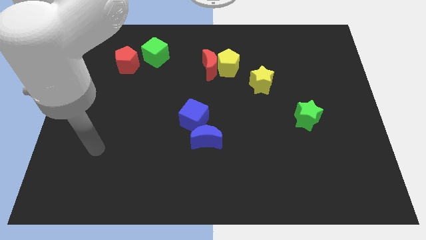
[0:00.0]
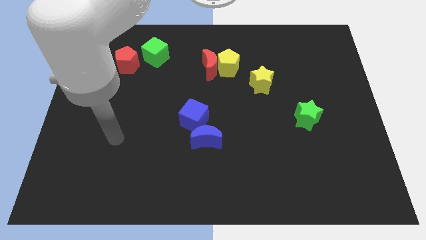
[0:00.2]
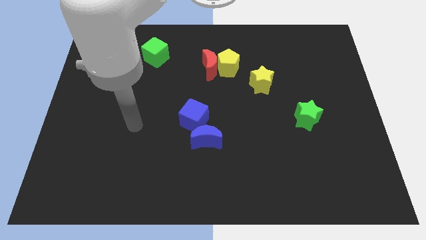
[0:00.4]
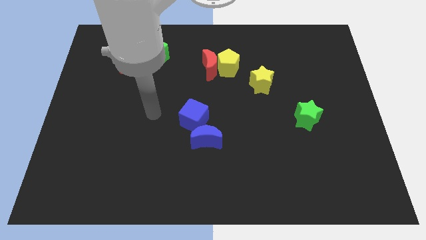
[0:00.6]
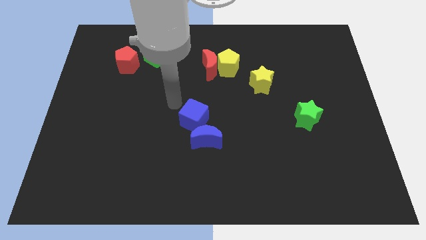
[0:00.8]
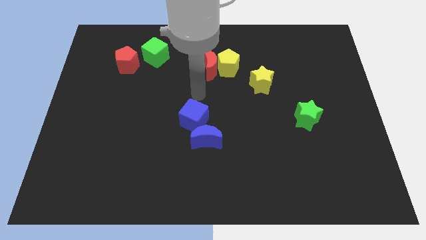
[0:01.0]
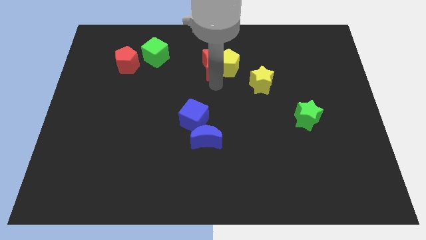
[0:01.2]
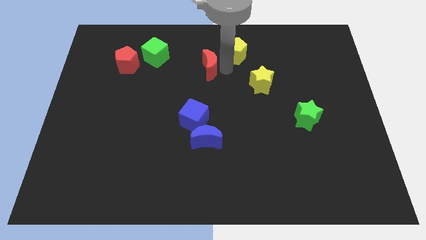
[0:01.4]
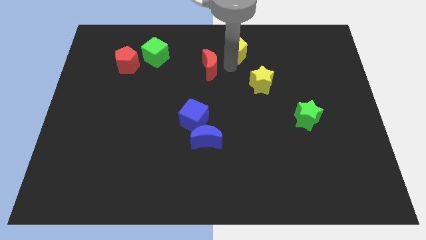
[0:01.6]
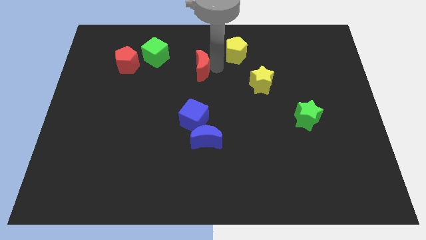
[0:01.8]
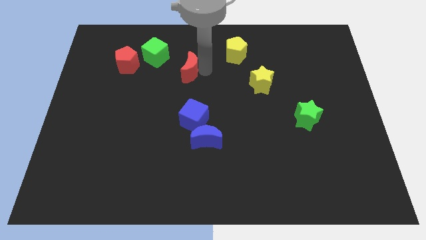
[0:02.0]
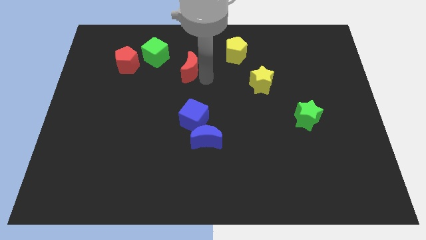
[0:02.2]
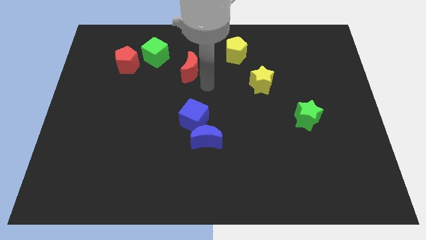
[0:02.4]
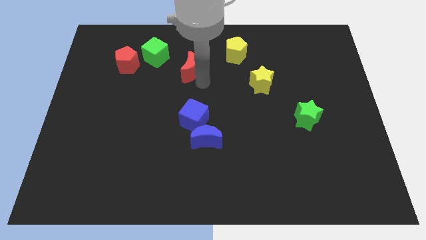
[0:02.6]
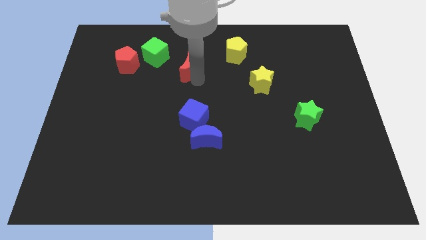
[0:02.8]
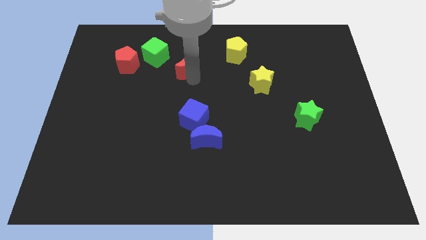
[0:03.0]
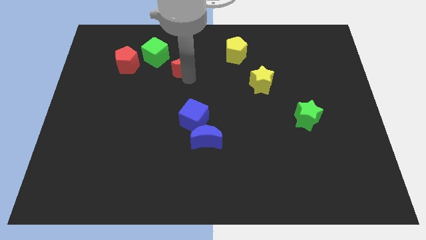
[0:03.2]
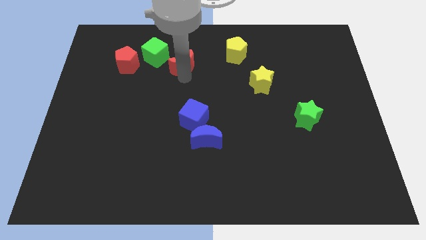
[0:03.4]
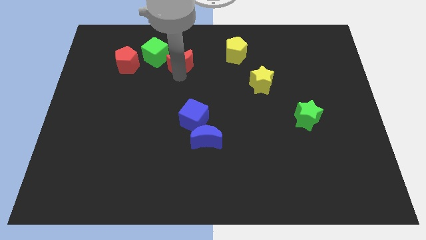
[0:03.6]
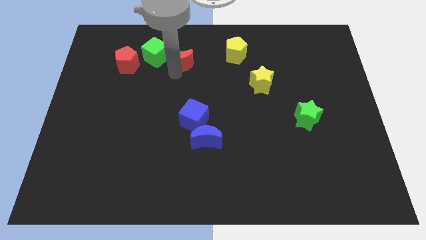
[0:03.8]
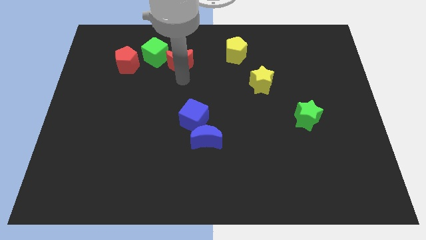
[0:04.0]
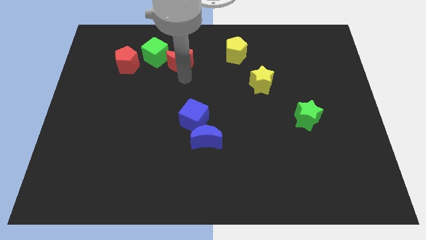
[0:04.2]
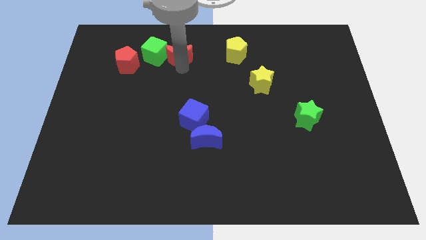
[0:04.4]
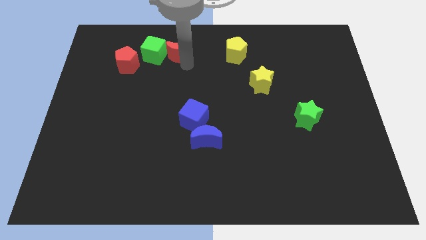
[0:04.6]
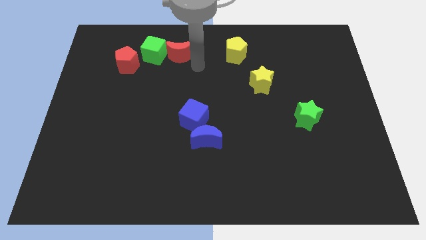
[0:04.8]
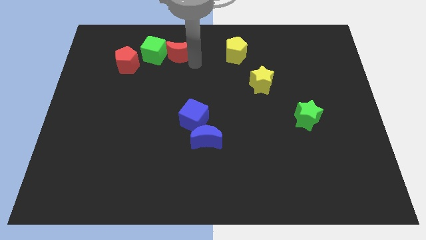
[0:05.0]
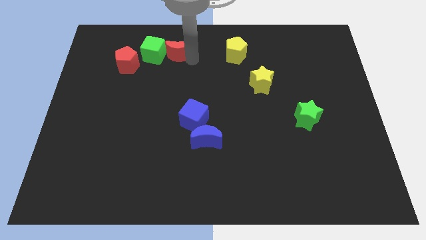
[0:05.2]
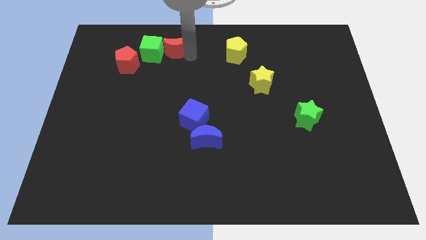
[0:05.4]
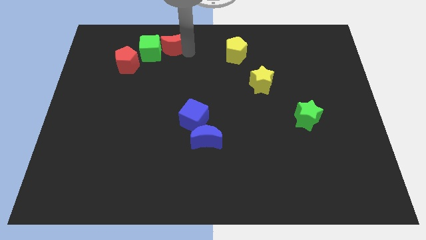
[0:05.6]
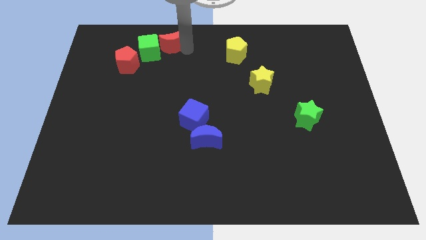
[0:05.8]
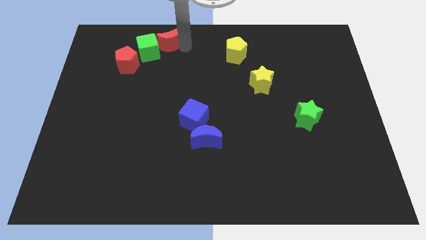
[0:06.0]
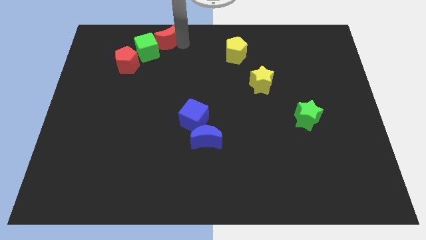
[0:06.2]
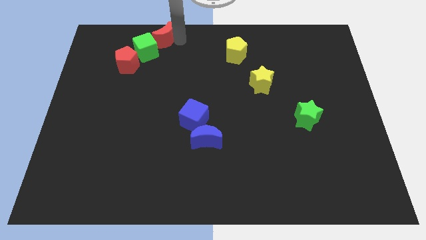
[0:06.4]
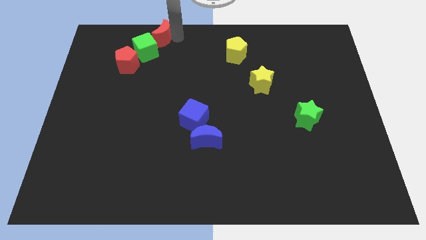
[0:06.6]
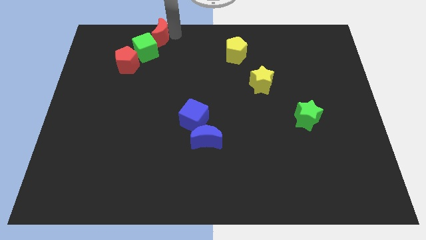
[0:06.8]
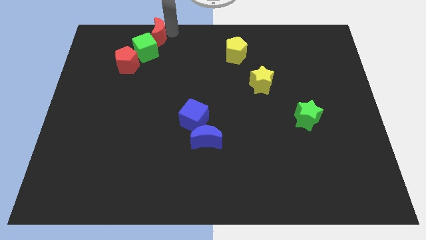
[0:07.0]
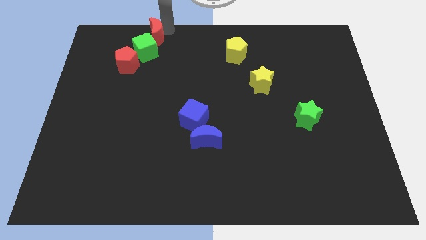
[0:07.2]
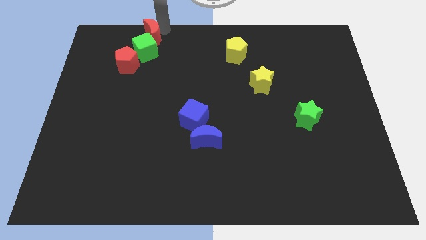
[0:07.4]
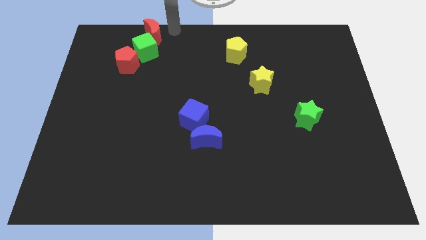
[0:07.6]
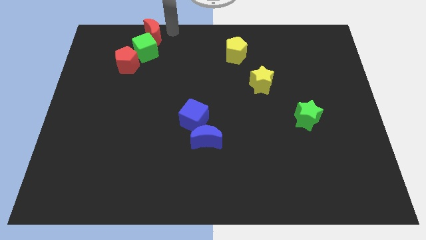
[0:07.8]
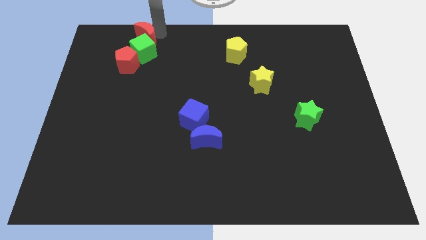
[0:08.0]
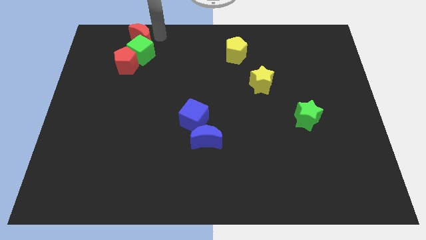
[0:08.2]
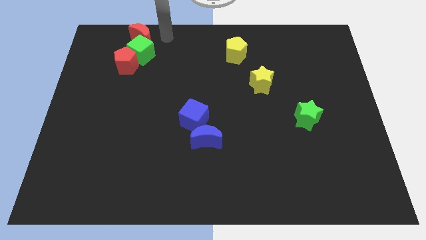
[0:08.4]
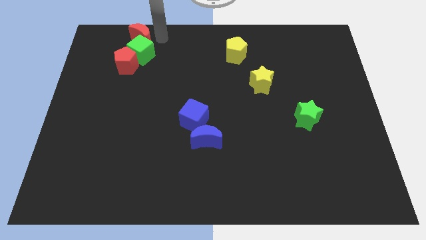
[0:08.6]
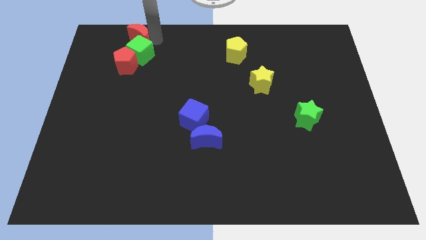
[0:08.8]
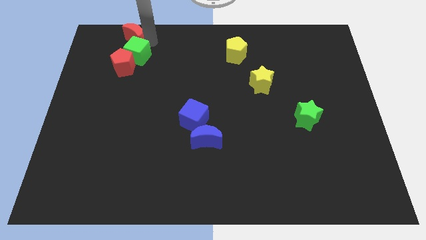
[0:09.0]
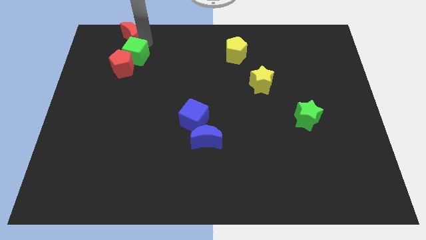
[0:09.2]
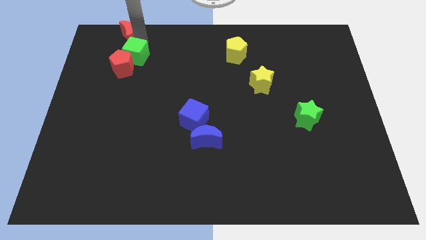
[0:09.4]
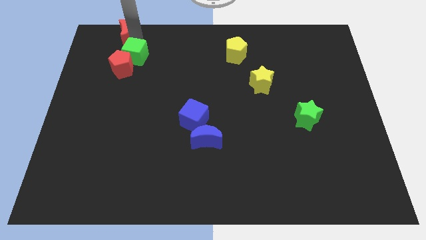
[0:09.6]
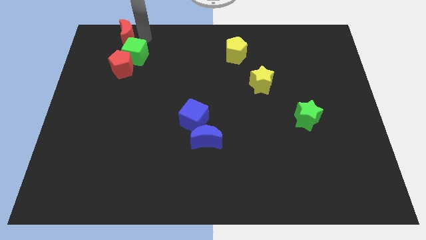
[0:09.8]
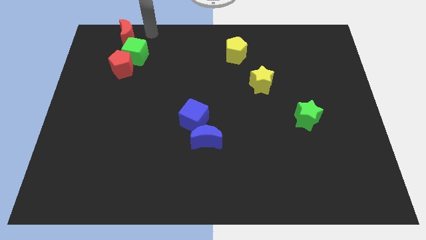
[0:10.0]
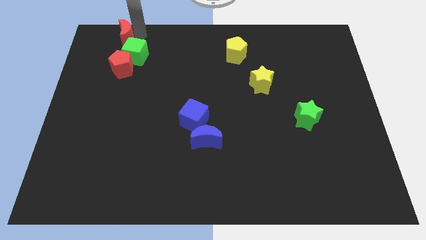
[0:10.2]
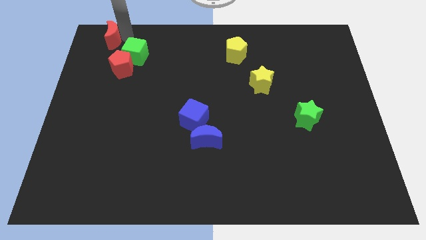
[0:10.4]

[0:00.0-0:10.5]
move the red moon to the top left corner

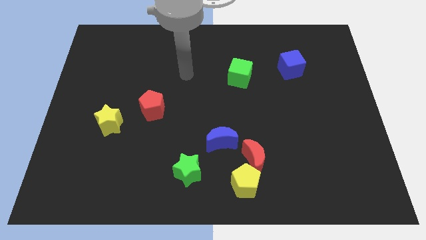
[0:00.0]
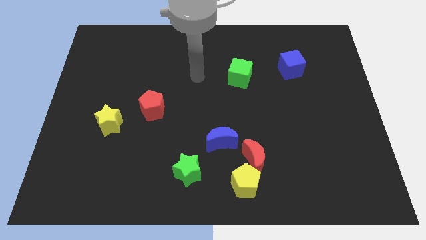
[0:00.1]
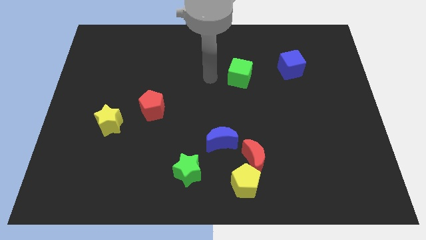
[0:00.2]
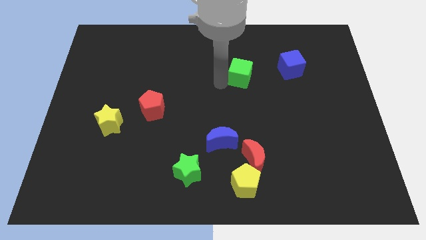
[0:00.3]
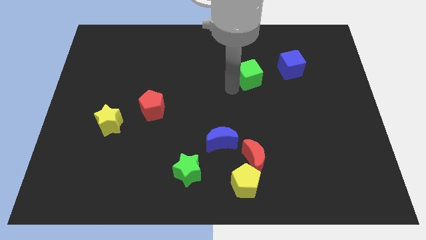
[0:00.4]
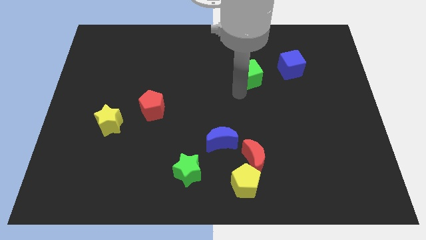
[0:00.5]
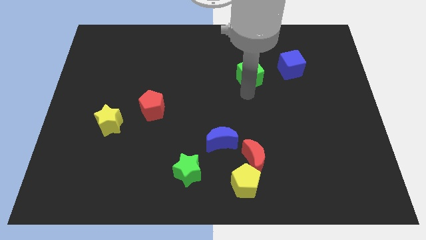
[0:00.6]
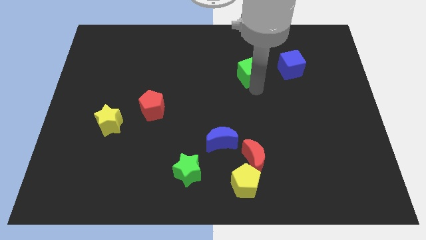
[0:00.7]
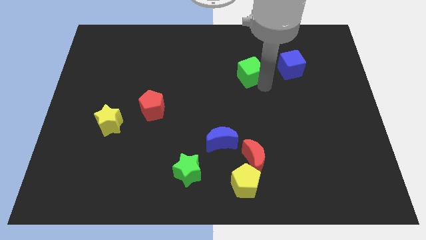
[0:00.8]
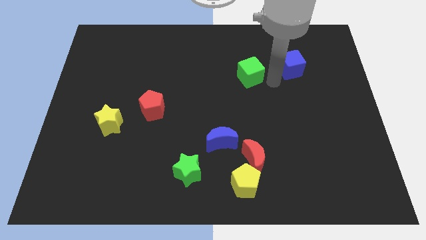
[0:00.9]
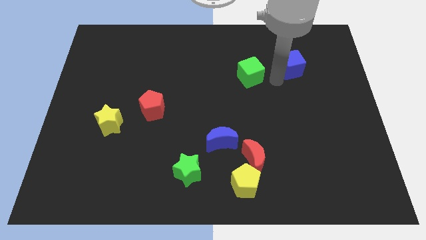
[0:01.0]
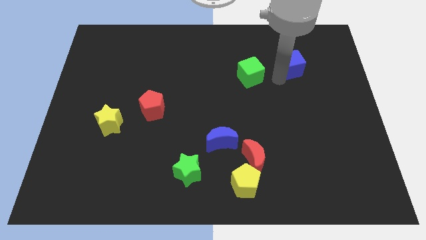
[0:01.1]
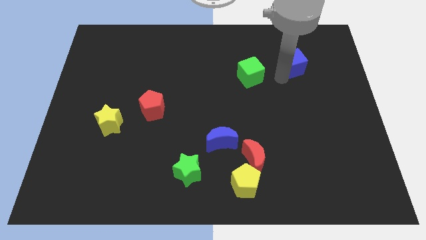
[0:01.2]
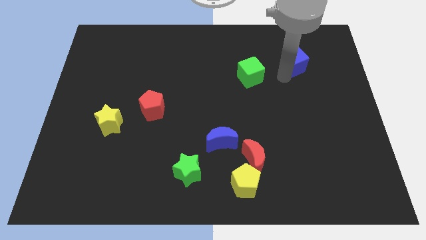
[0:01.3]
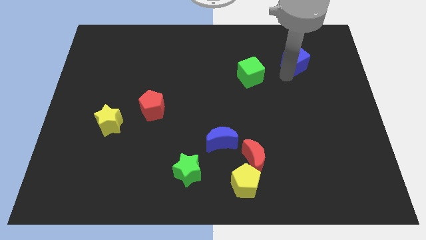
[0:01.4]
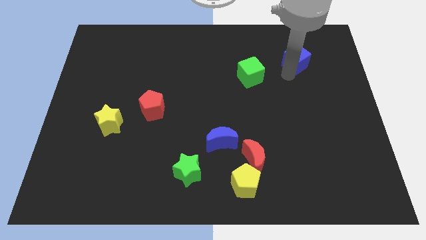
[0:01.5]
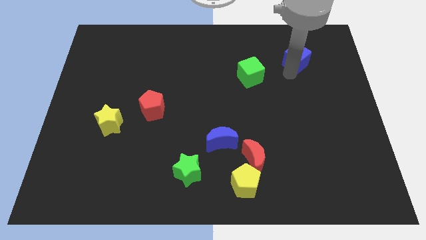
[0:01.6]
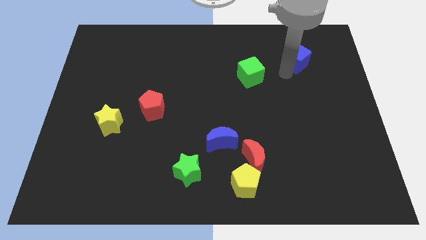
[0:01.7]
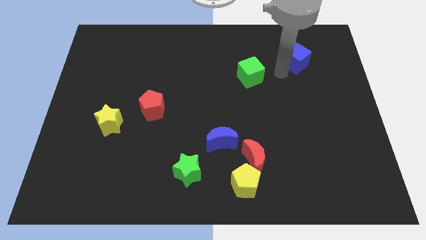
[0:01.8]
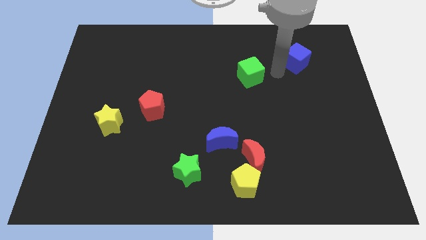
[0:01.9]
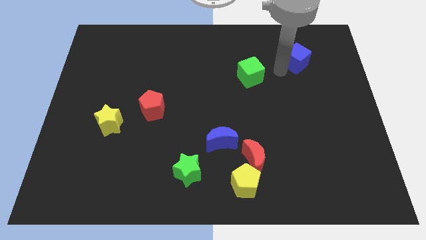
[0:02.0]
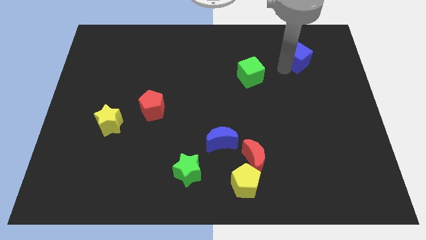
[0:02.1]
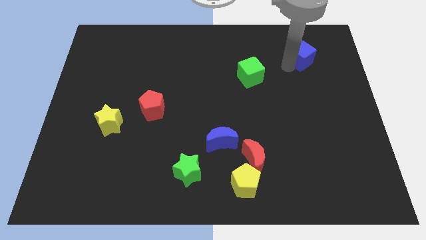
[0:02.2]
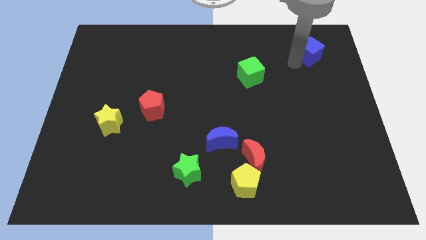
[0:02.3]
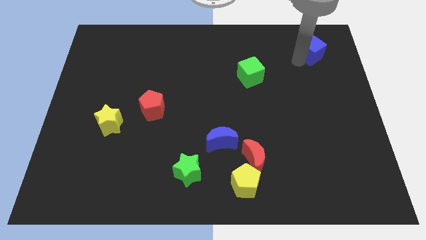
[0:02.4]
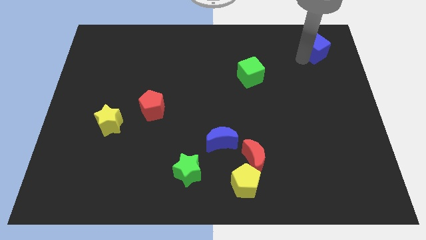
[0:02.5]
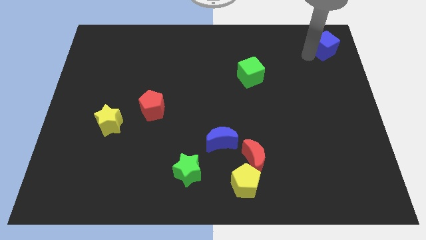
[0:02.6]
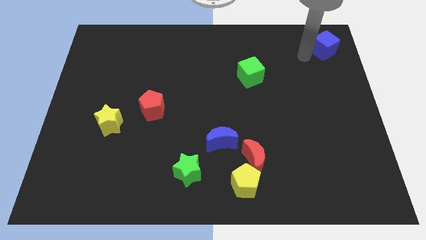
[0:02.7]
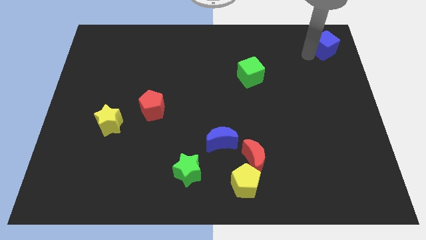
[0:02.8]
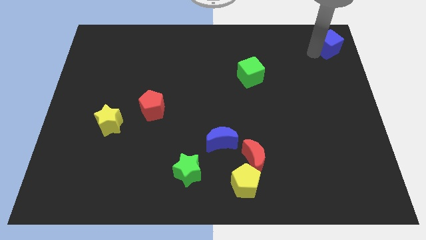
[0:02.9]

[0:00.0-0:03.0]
put the blue cube to the upper right corner
